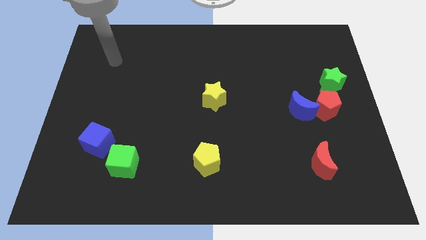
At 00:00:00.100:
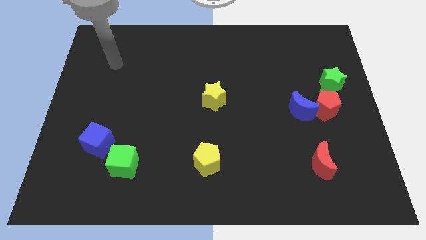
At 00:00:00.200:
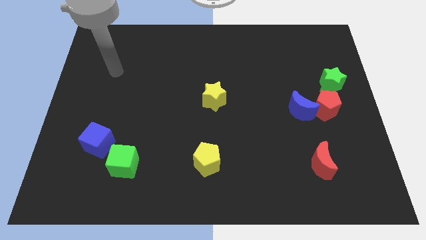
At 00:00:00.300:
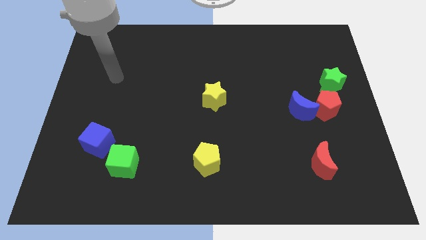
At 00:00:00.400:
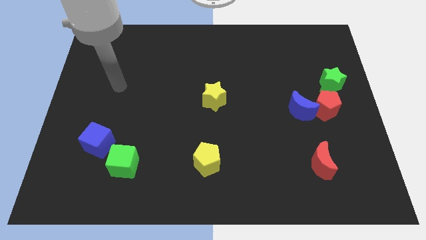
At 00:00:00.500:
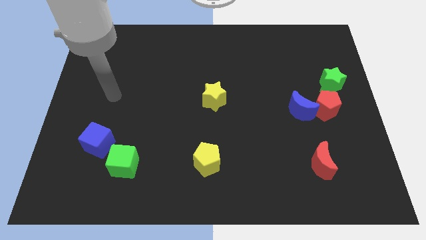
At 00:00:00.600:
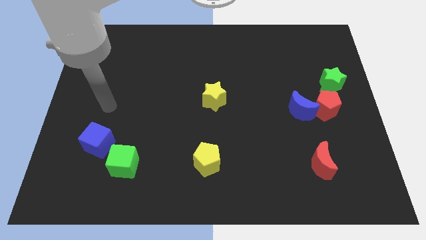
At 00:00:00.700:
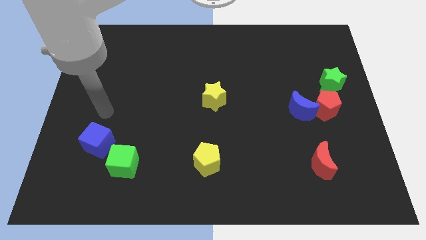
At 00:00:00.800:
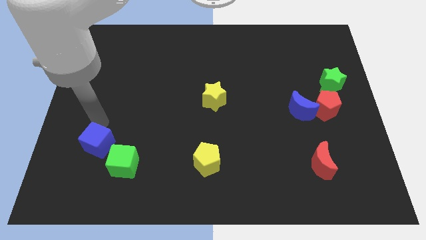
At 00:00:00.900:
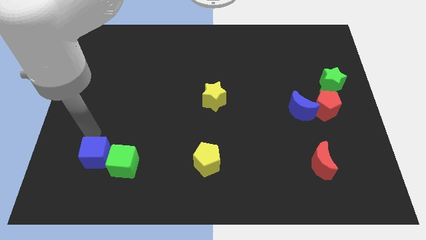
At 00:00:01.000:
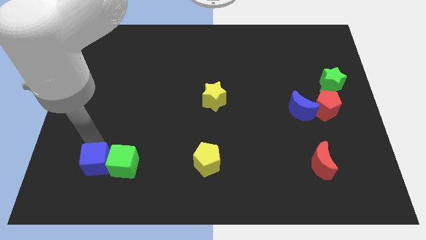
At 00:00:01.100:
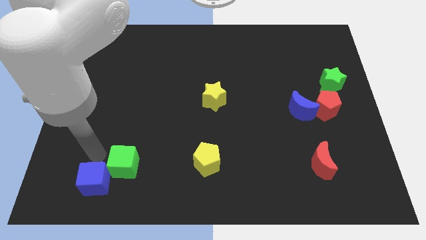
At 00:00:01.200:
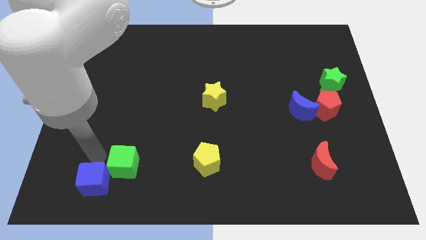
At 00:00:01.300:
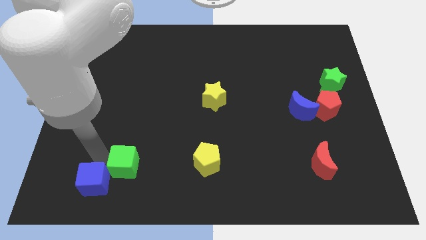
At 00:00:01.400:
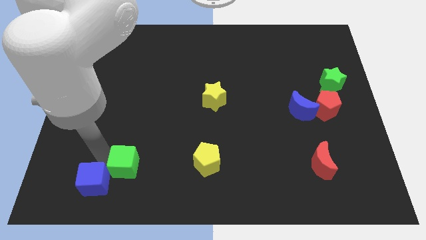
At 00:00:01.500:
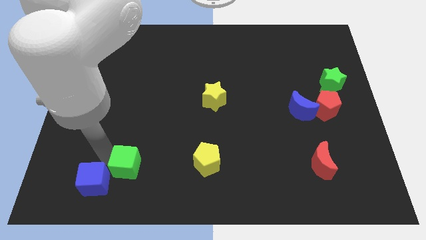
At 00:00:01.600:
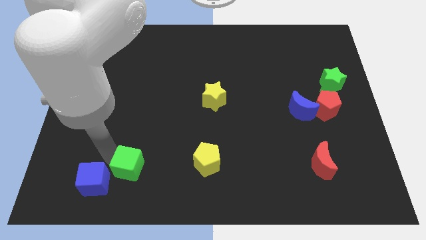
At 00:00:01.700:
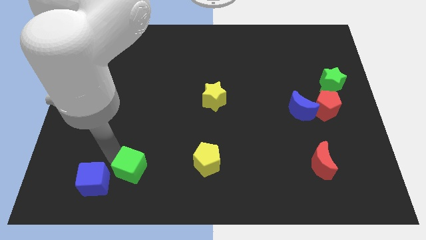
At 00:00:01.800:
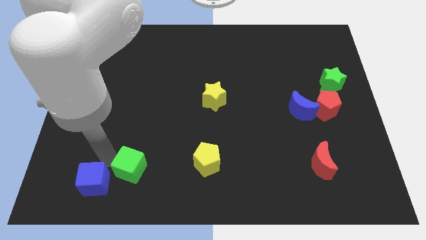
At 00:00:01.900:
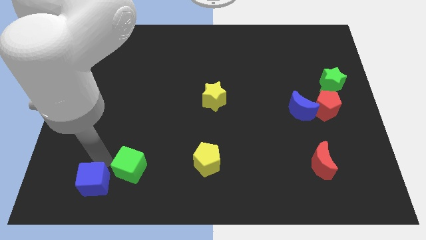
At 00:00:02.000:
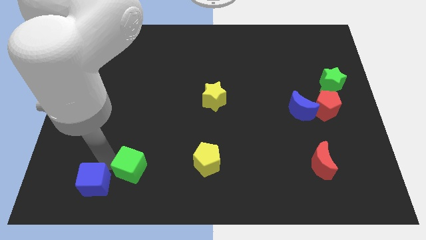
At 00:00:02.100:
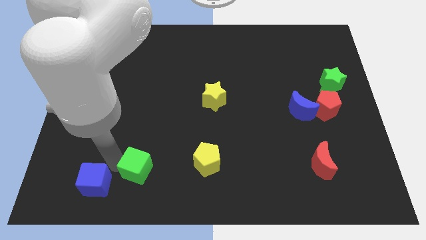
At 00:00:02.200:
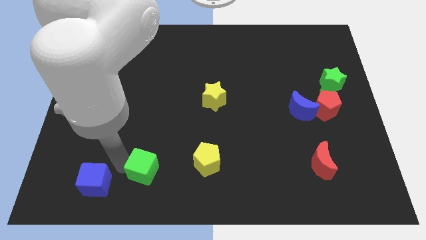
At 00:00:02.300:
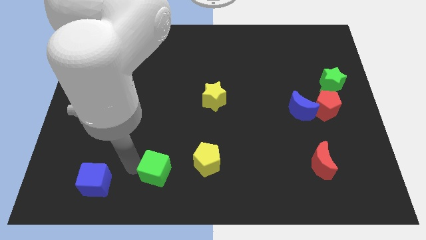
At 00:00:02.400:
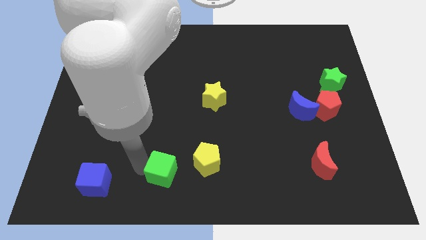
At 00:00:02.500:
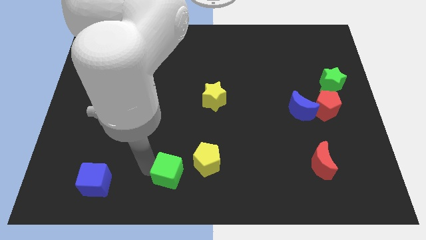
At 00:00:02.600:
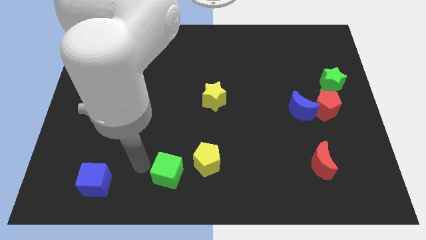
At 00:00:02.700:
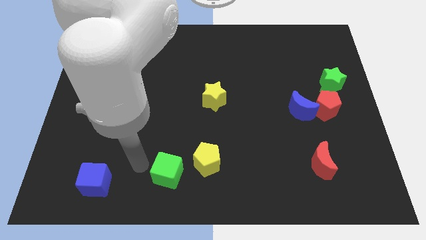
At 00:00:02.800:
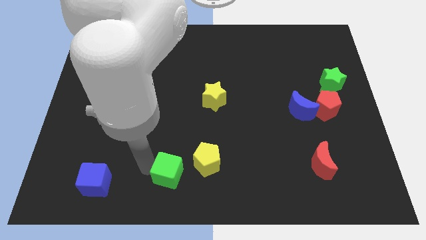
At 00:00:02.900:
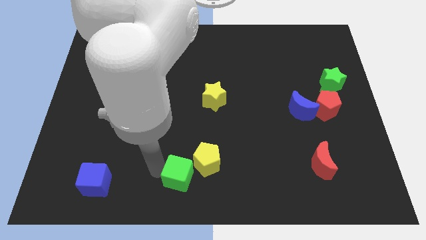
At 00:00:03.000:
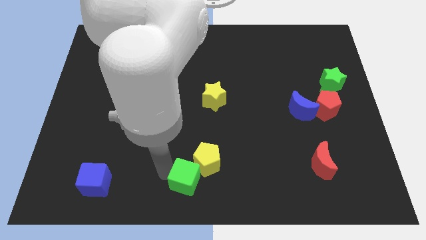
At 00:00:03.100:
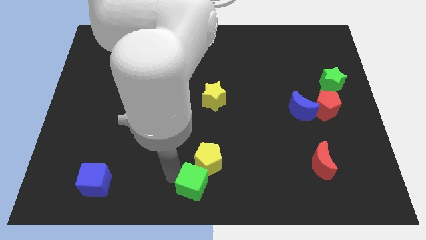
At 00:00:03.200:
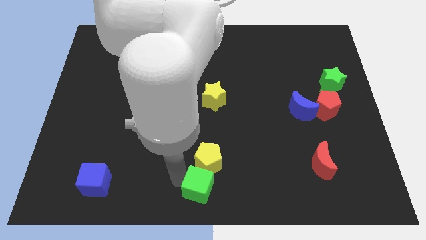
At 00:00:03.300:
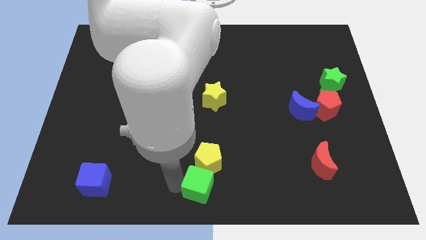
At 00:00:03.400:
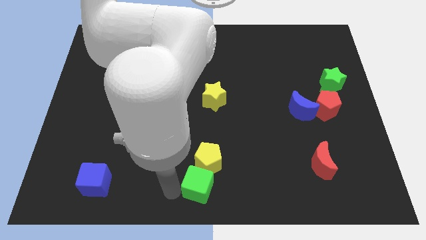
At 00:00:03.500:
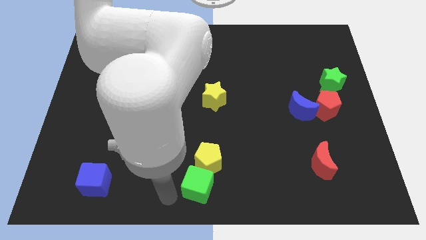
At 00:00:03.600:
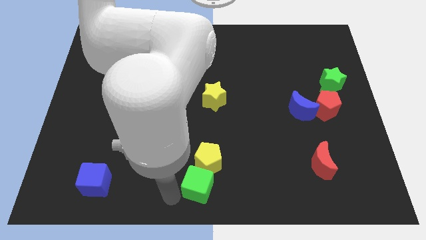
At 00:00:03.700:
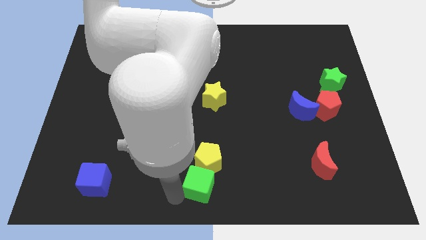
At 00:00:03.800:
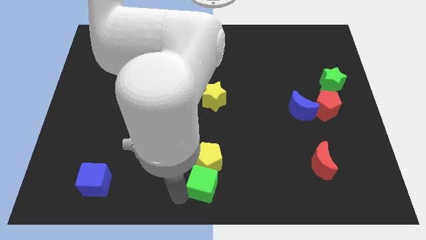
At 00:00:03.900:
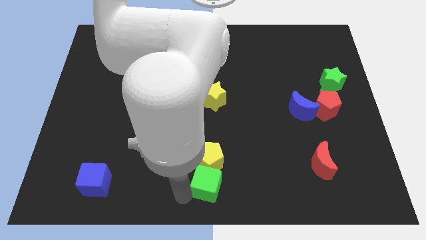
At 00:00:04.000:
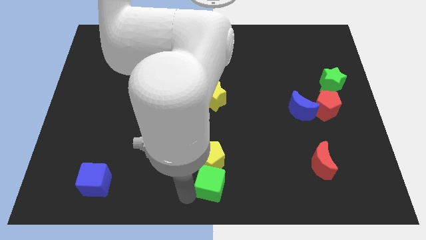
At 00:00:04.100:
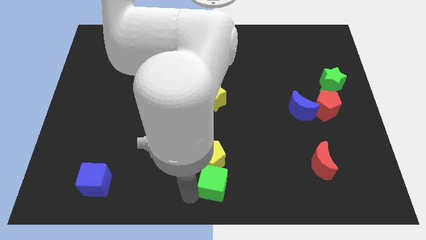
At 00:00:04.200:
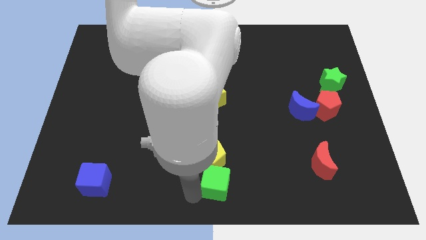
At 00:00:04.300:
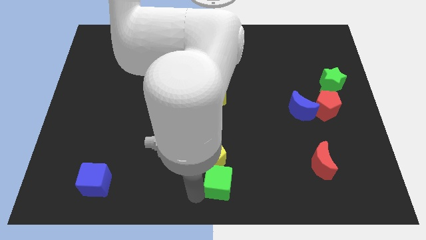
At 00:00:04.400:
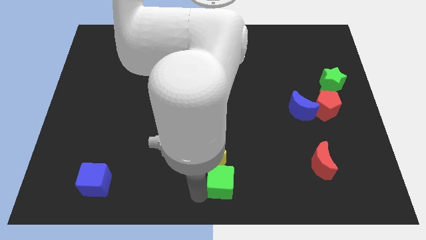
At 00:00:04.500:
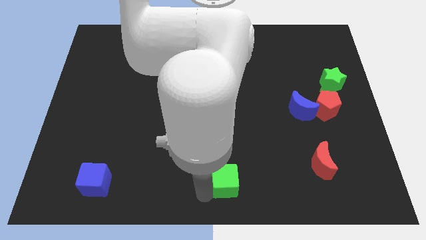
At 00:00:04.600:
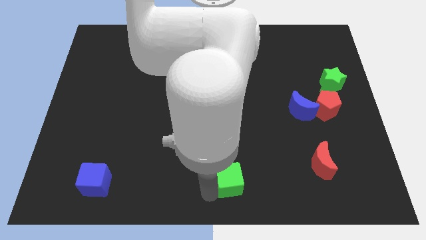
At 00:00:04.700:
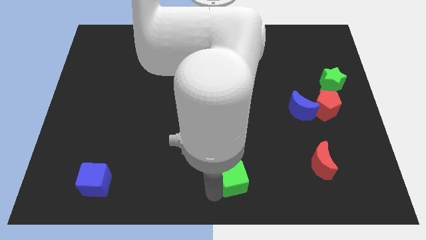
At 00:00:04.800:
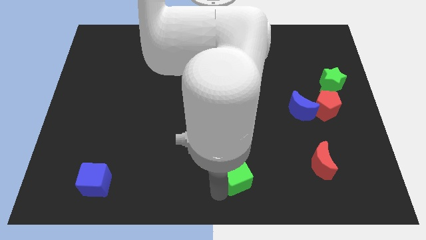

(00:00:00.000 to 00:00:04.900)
slide the green cube right of the yellow pentagon

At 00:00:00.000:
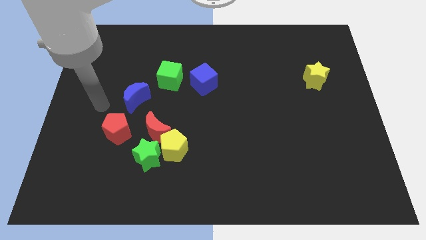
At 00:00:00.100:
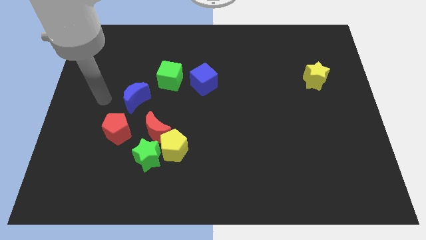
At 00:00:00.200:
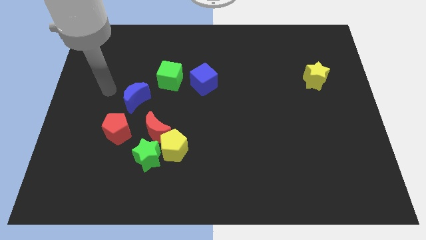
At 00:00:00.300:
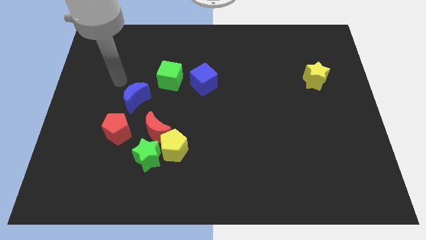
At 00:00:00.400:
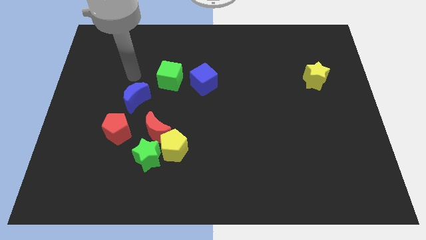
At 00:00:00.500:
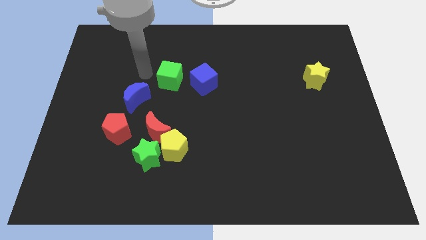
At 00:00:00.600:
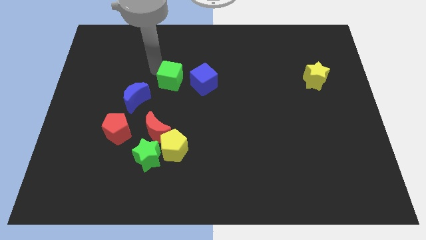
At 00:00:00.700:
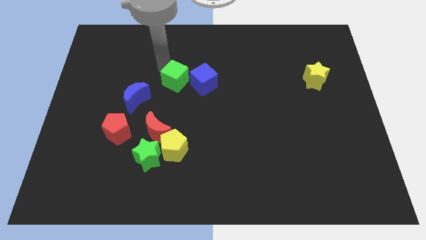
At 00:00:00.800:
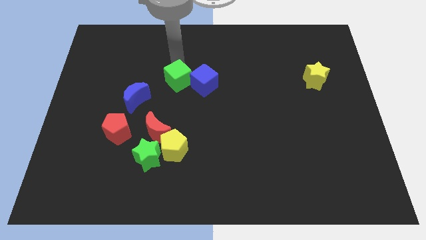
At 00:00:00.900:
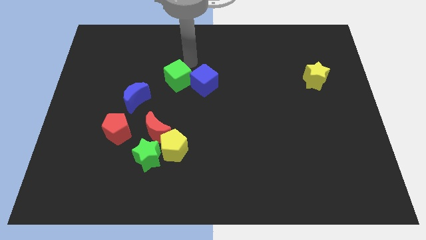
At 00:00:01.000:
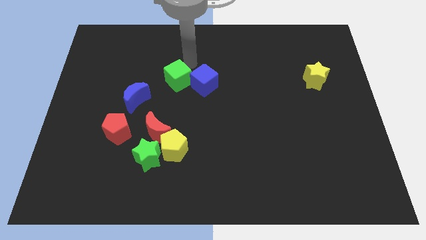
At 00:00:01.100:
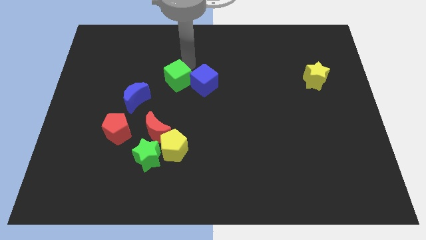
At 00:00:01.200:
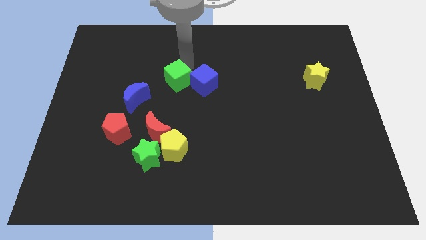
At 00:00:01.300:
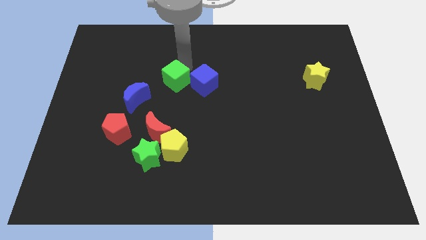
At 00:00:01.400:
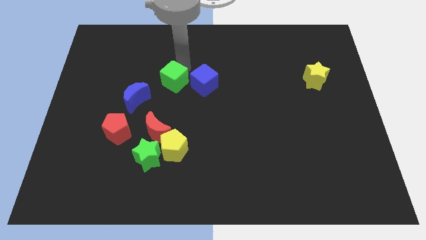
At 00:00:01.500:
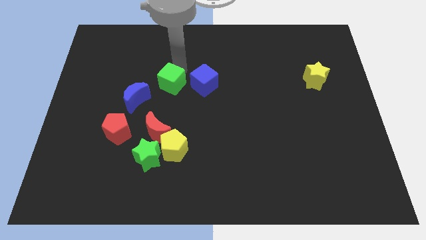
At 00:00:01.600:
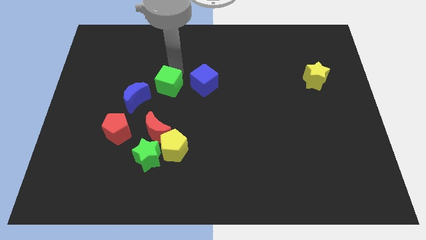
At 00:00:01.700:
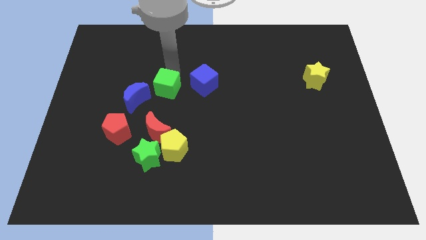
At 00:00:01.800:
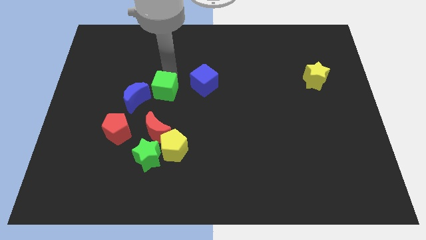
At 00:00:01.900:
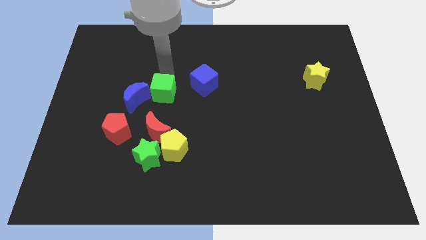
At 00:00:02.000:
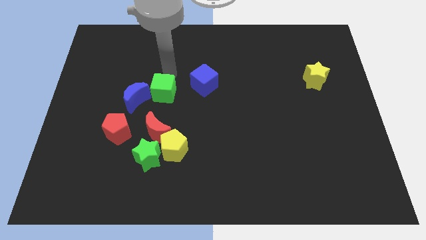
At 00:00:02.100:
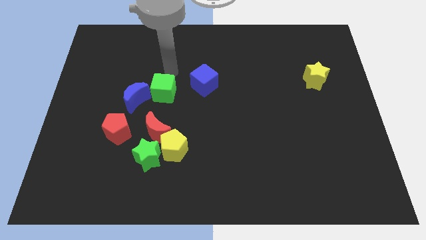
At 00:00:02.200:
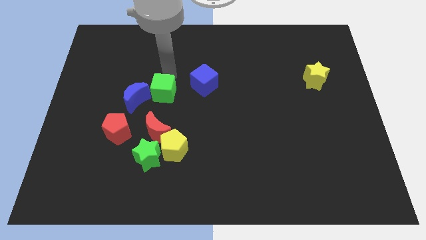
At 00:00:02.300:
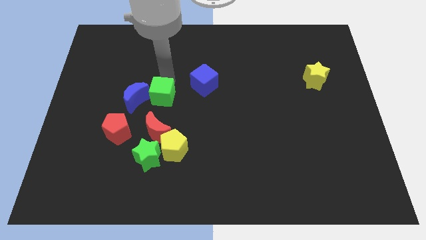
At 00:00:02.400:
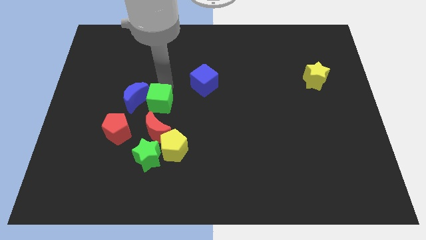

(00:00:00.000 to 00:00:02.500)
slide the green cube to the bottom right side of the blue moon
